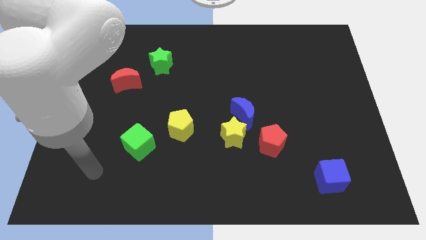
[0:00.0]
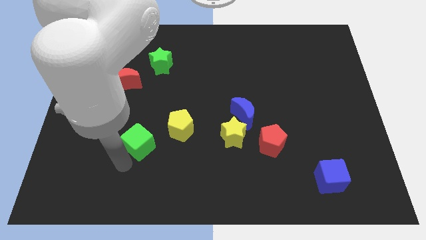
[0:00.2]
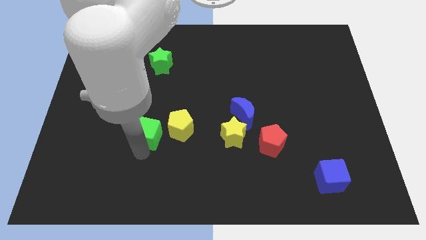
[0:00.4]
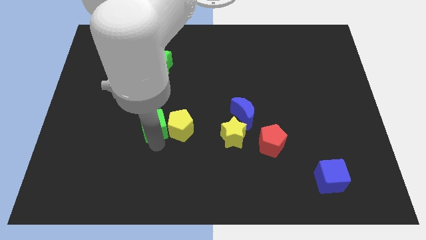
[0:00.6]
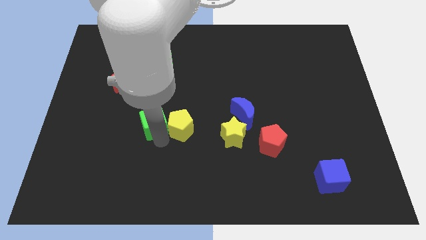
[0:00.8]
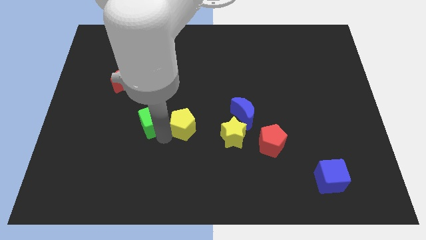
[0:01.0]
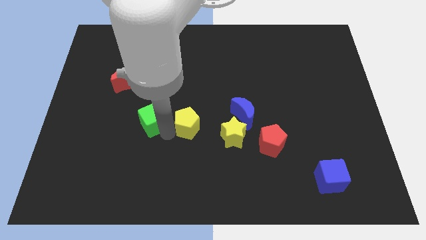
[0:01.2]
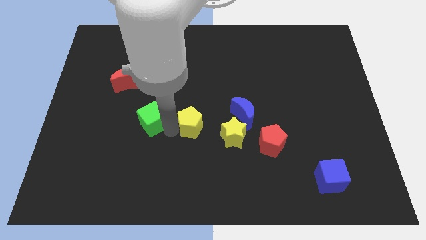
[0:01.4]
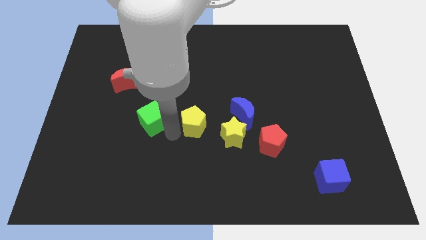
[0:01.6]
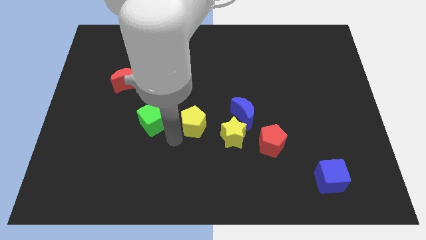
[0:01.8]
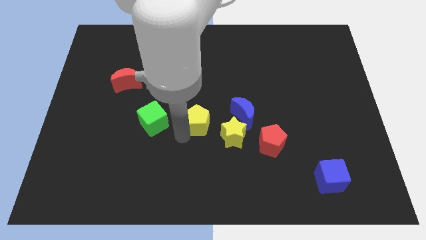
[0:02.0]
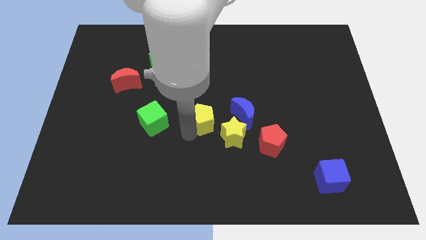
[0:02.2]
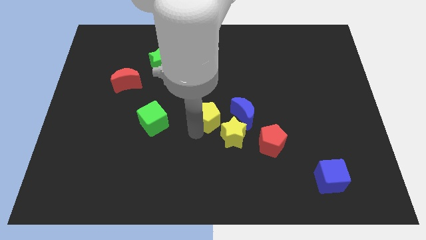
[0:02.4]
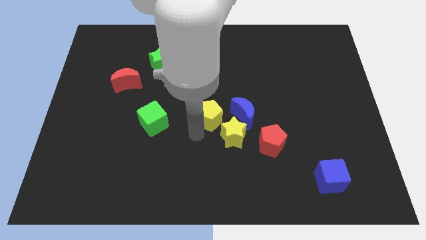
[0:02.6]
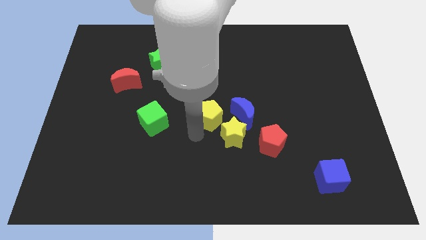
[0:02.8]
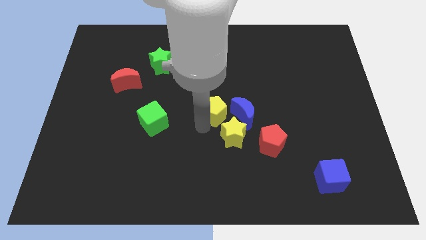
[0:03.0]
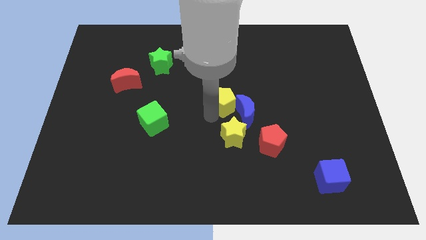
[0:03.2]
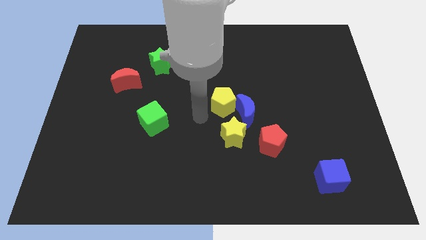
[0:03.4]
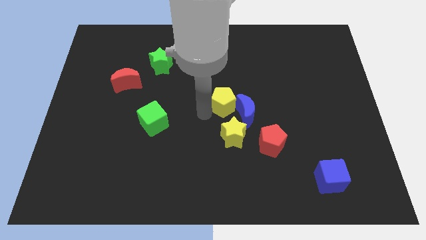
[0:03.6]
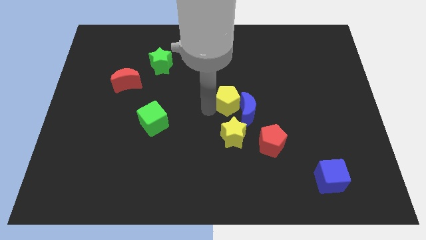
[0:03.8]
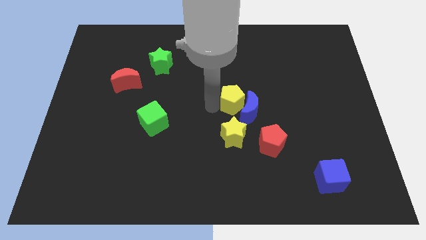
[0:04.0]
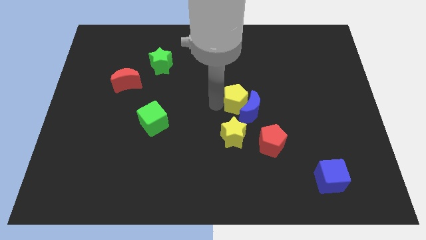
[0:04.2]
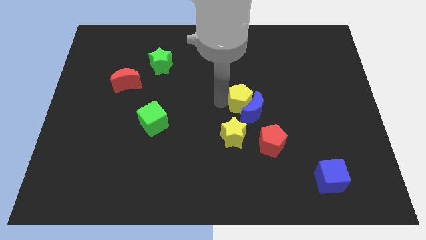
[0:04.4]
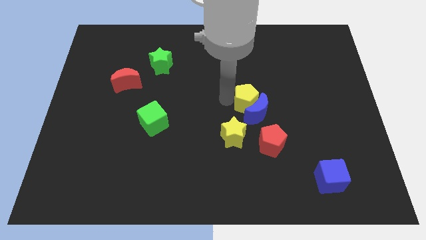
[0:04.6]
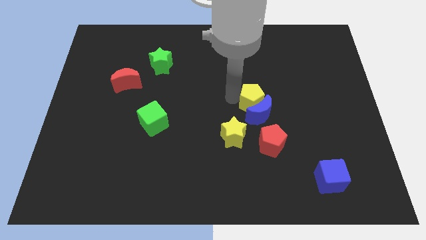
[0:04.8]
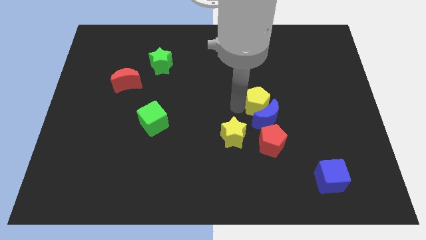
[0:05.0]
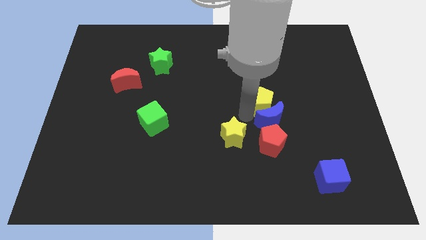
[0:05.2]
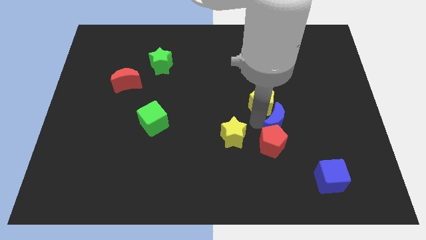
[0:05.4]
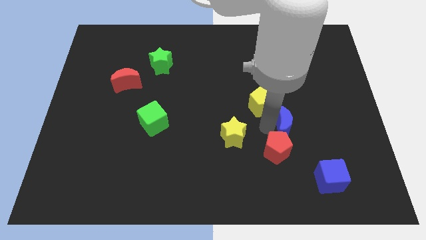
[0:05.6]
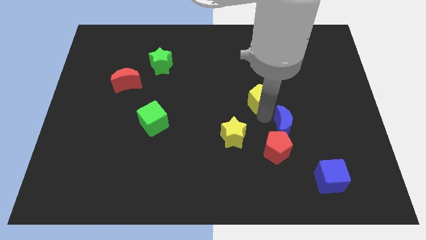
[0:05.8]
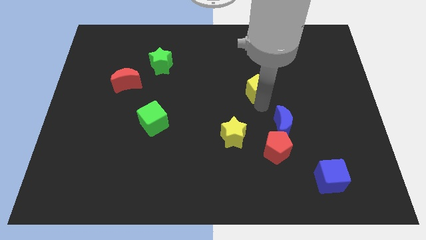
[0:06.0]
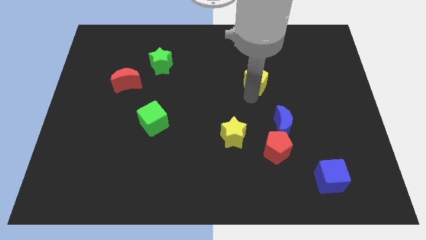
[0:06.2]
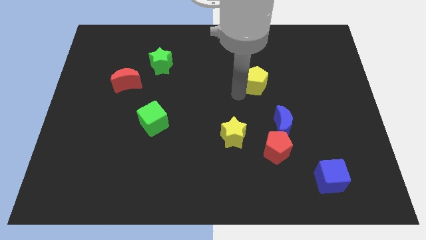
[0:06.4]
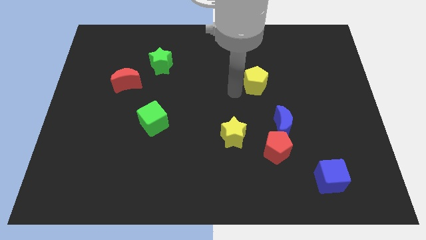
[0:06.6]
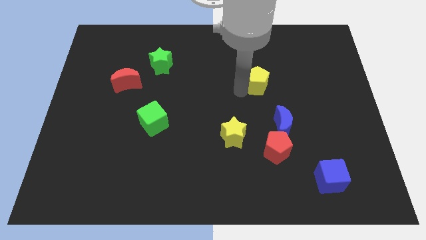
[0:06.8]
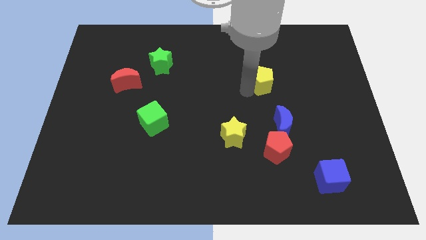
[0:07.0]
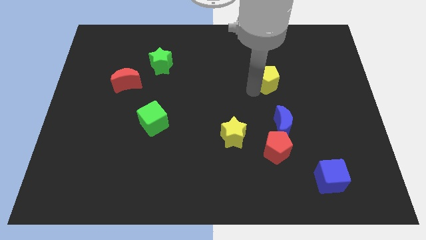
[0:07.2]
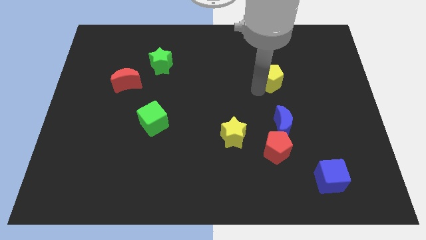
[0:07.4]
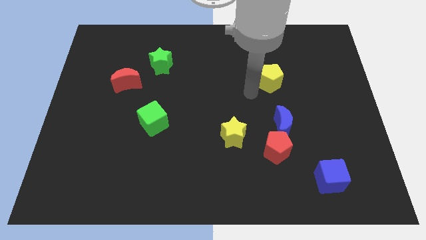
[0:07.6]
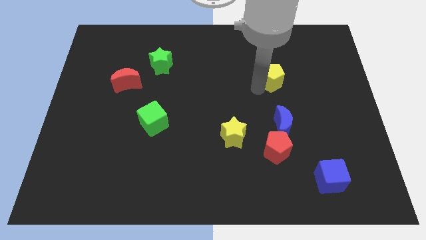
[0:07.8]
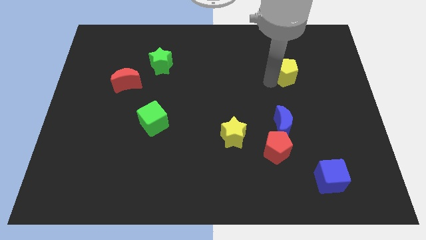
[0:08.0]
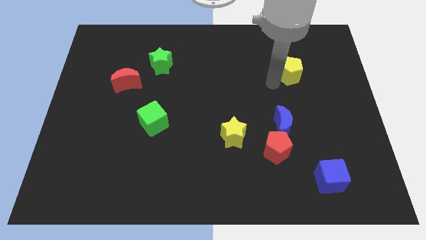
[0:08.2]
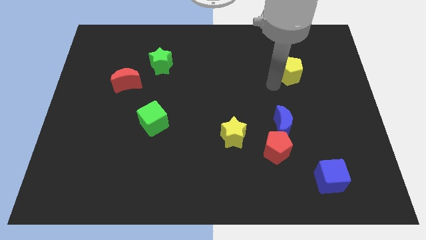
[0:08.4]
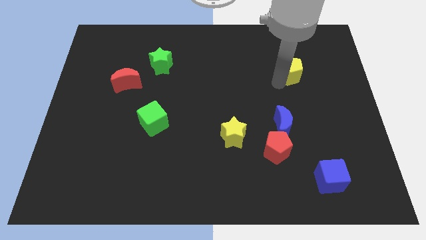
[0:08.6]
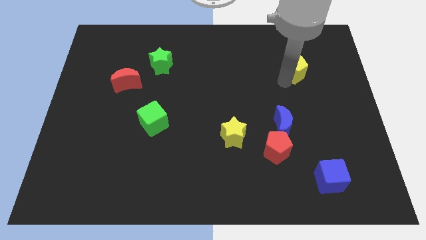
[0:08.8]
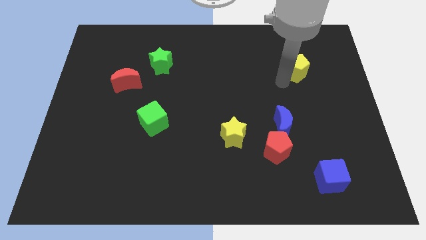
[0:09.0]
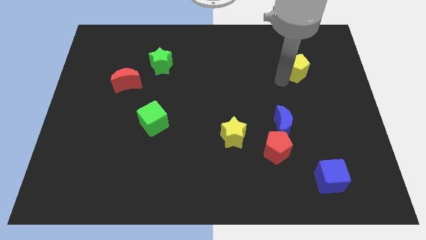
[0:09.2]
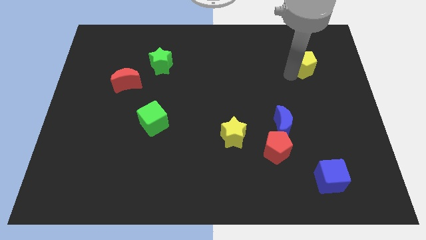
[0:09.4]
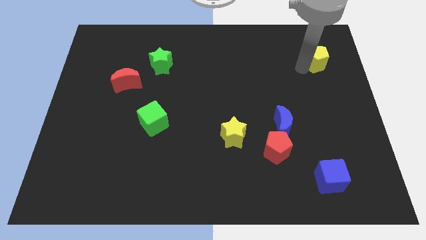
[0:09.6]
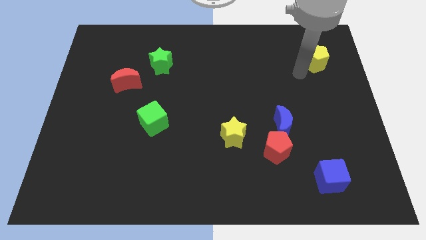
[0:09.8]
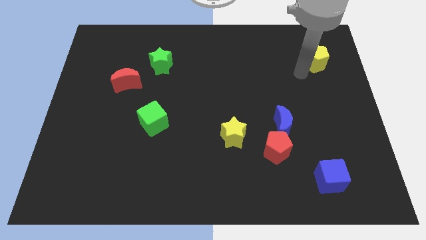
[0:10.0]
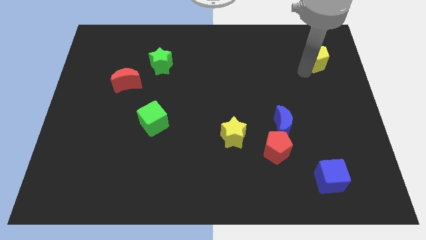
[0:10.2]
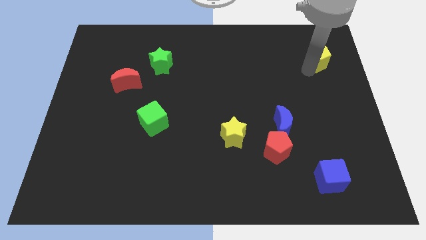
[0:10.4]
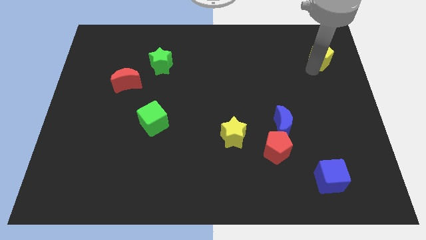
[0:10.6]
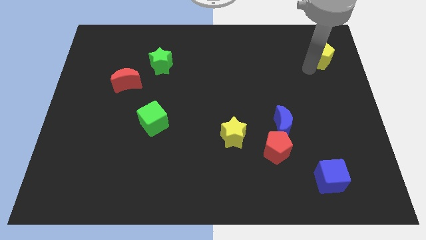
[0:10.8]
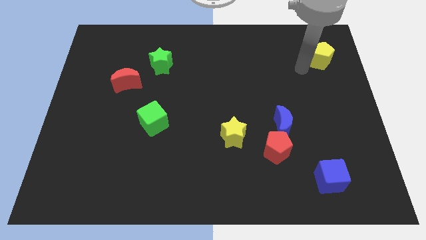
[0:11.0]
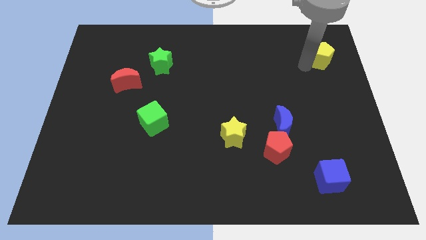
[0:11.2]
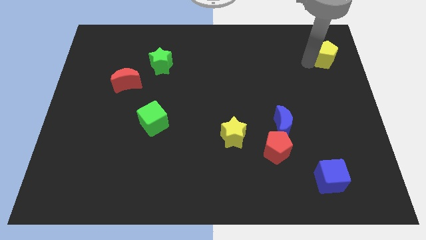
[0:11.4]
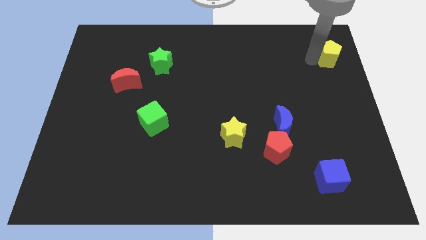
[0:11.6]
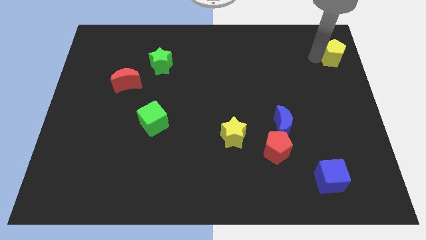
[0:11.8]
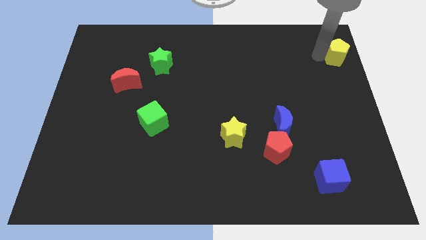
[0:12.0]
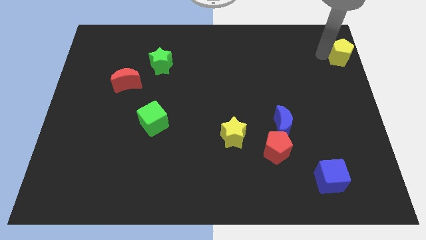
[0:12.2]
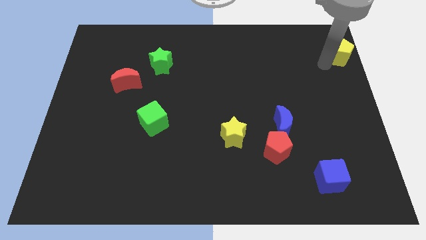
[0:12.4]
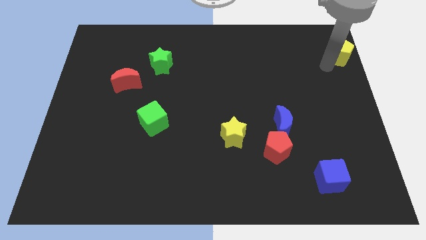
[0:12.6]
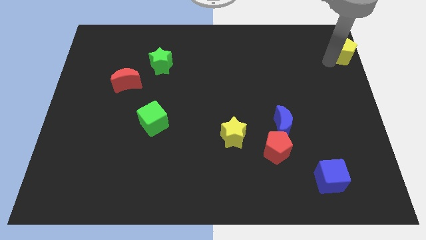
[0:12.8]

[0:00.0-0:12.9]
slide the yellow pentagon to the upper right corner
